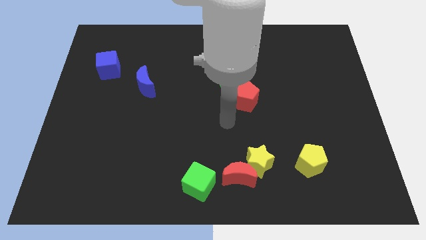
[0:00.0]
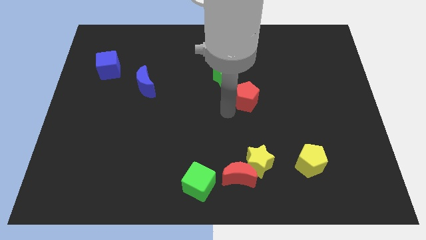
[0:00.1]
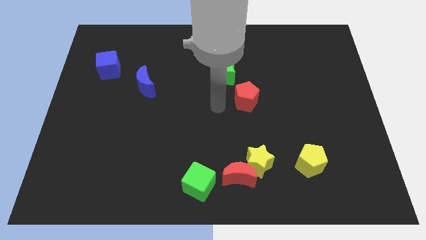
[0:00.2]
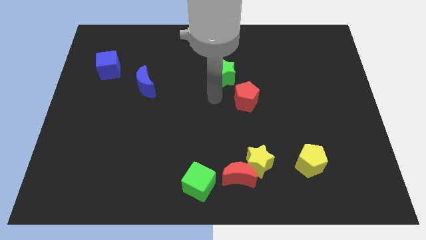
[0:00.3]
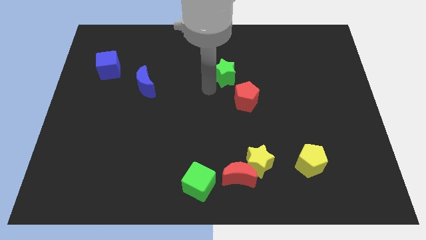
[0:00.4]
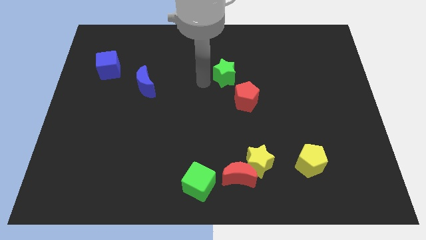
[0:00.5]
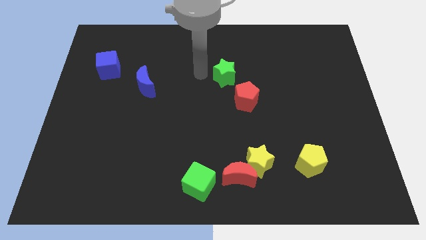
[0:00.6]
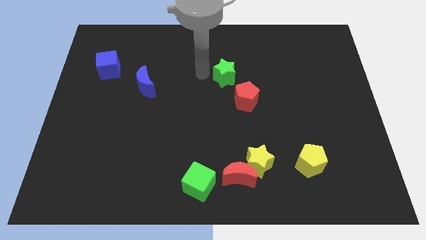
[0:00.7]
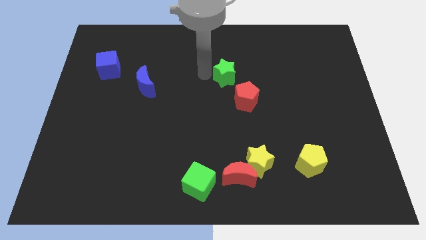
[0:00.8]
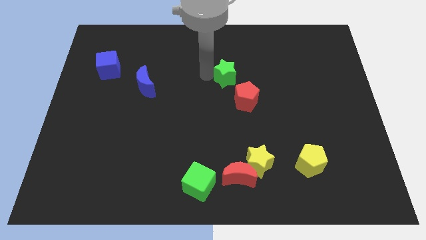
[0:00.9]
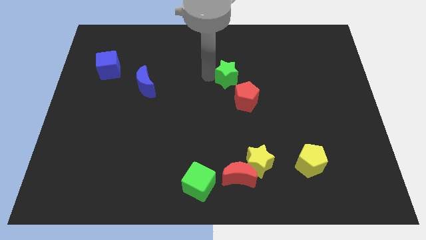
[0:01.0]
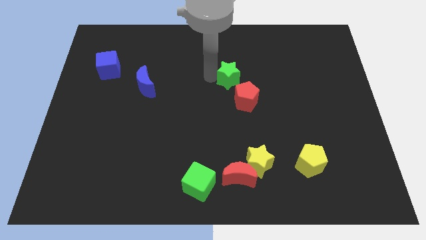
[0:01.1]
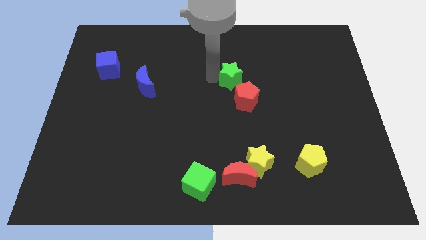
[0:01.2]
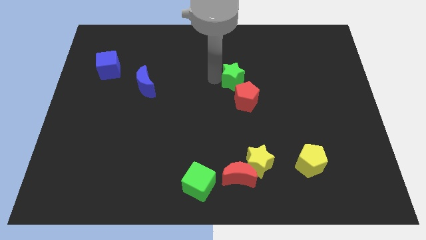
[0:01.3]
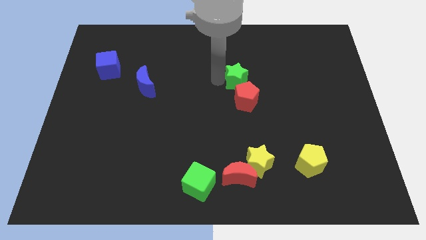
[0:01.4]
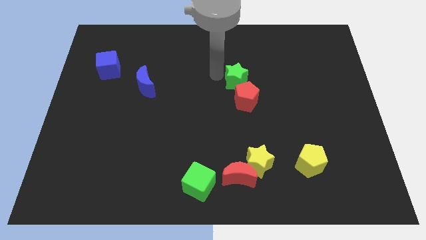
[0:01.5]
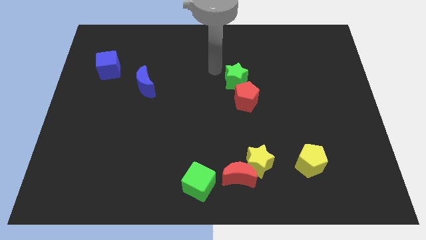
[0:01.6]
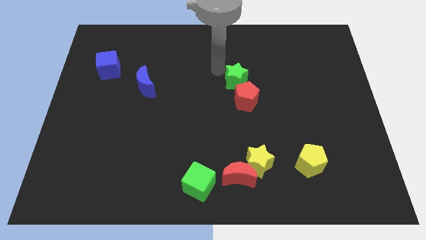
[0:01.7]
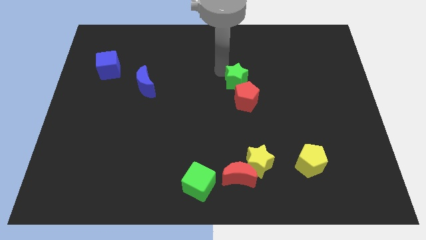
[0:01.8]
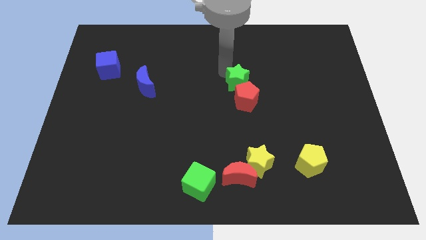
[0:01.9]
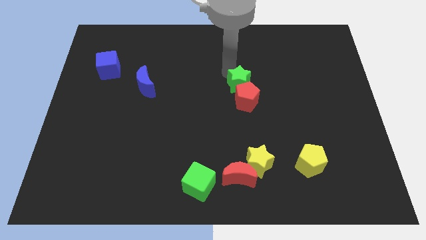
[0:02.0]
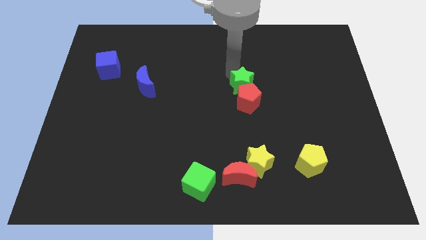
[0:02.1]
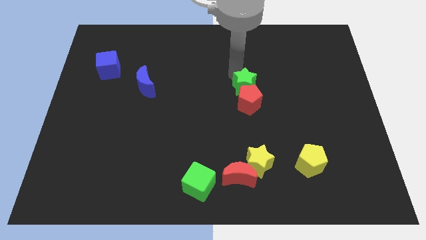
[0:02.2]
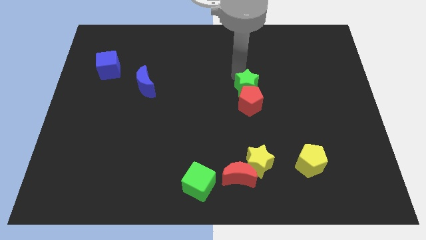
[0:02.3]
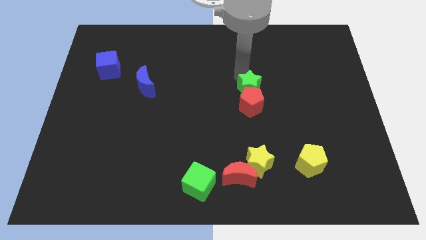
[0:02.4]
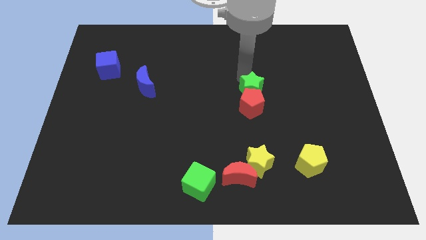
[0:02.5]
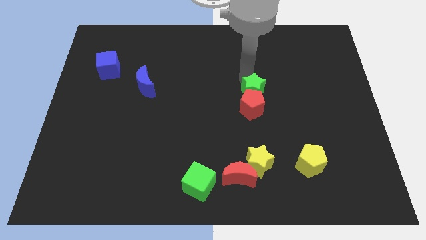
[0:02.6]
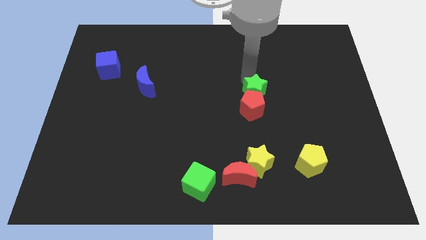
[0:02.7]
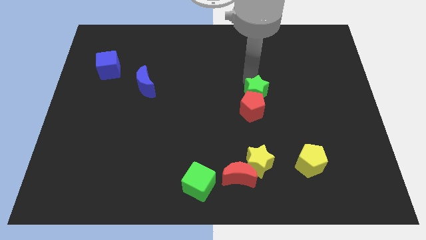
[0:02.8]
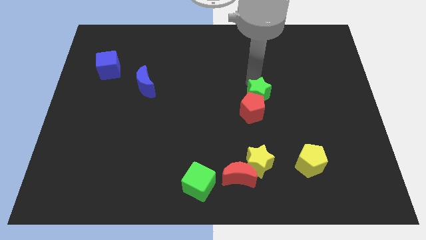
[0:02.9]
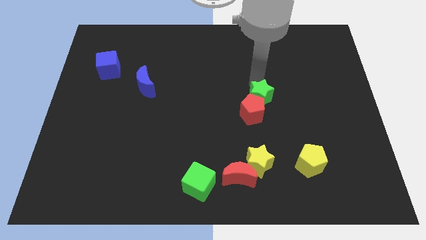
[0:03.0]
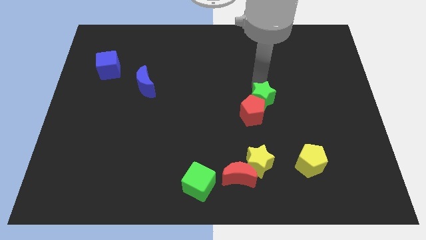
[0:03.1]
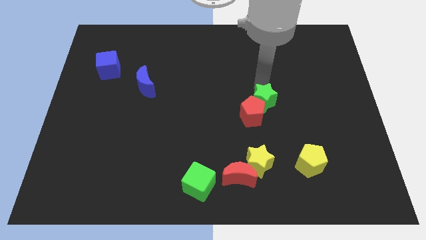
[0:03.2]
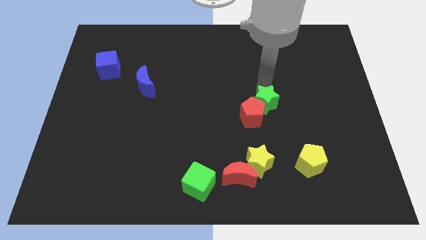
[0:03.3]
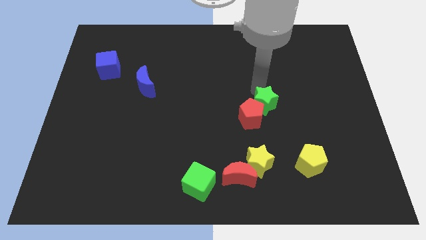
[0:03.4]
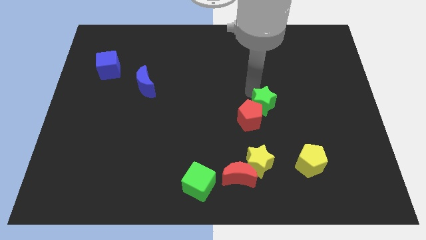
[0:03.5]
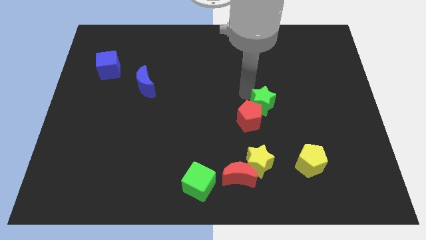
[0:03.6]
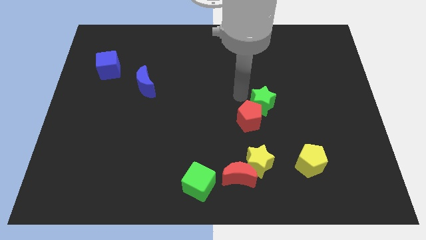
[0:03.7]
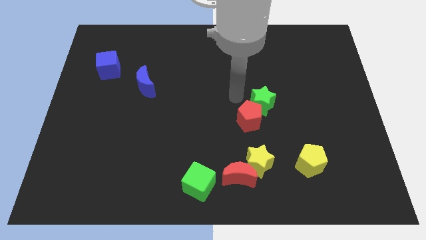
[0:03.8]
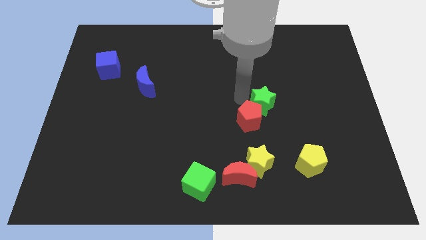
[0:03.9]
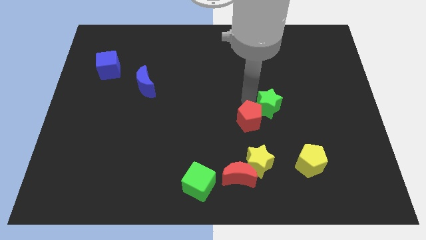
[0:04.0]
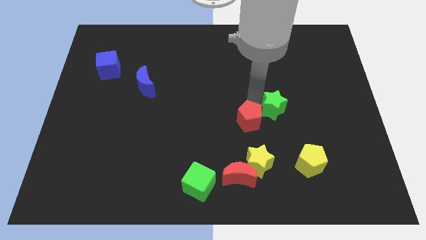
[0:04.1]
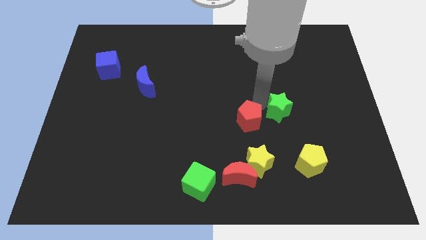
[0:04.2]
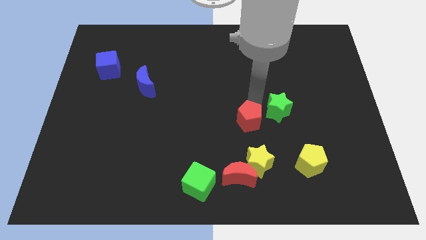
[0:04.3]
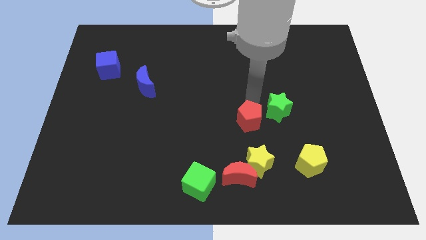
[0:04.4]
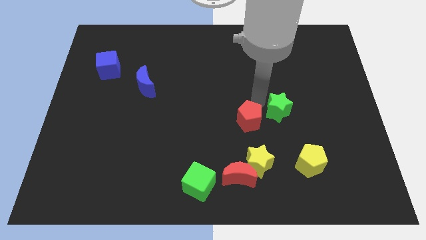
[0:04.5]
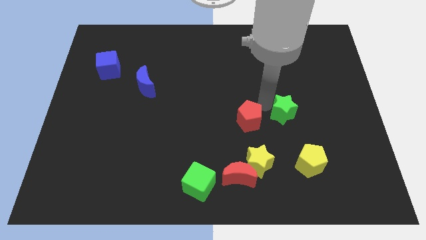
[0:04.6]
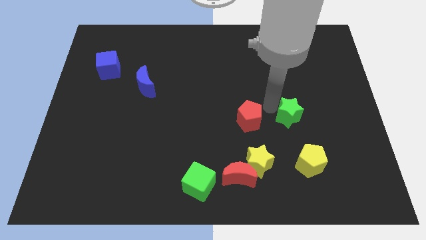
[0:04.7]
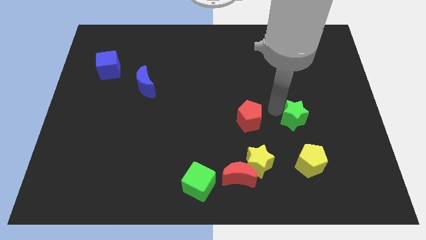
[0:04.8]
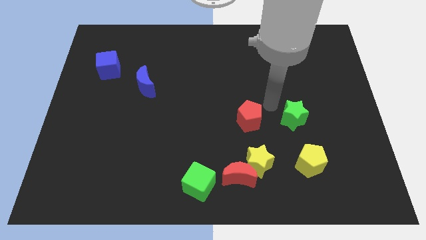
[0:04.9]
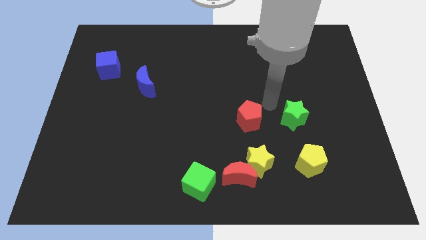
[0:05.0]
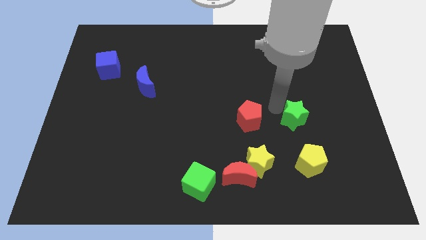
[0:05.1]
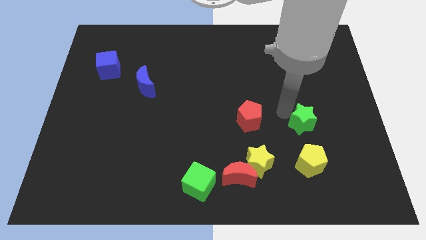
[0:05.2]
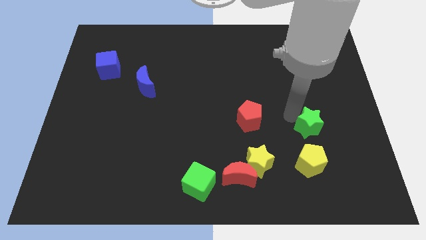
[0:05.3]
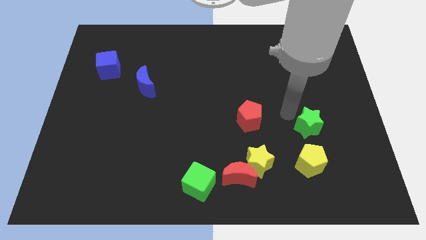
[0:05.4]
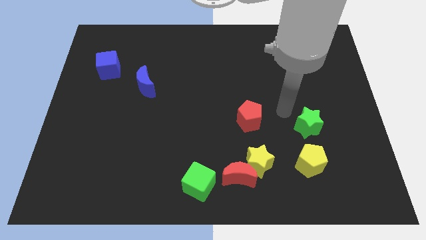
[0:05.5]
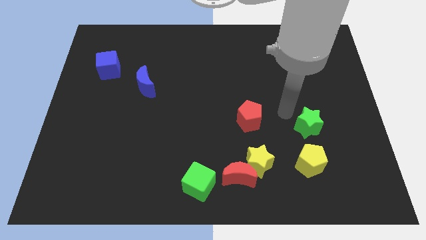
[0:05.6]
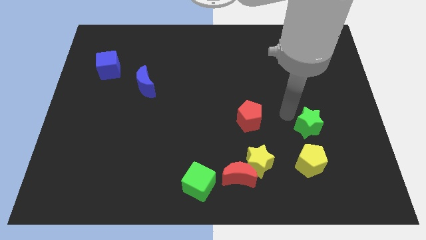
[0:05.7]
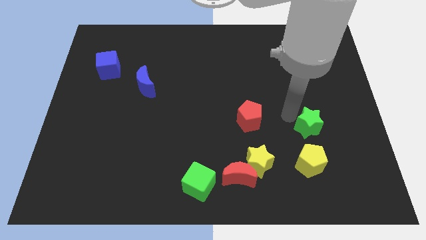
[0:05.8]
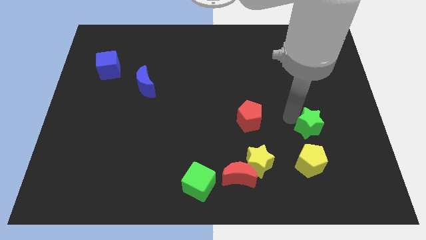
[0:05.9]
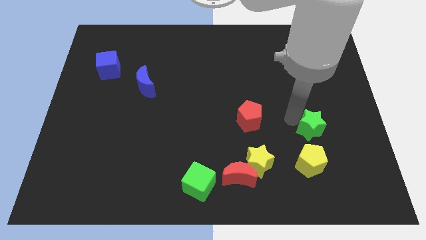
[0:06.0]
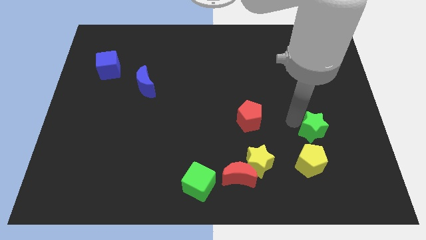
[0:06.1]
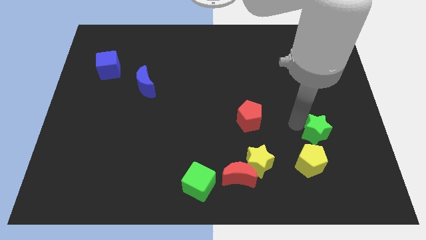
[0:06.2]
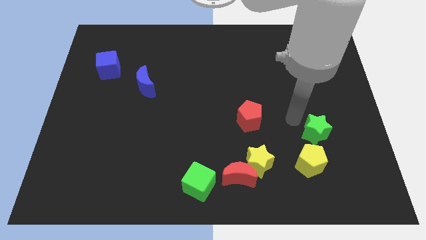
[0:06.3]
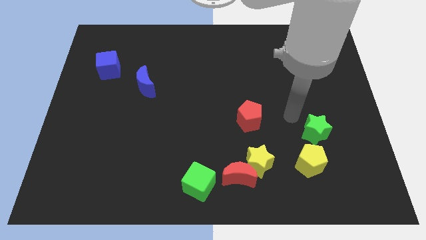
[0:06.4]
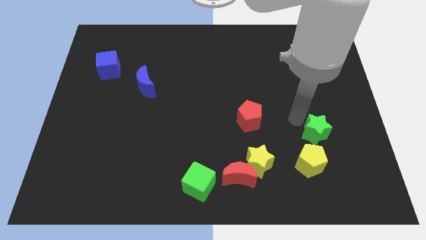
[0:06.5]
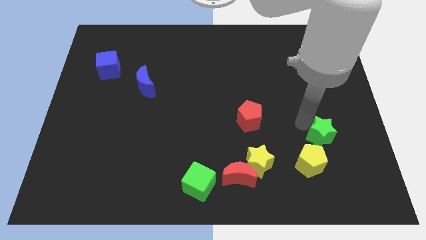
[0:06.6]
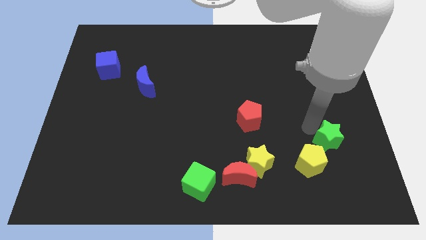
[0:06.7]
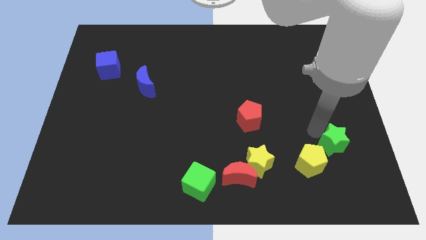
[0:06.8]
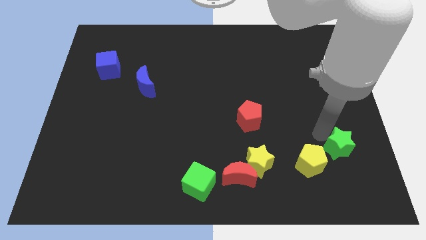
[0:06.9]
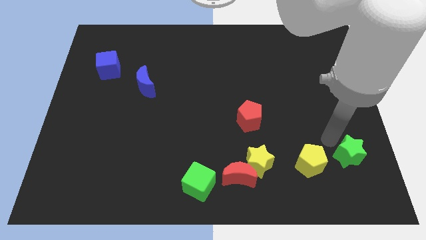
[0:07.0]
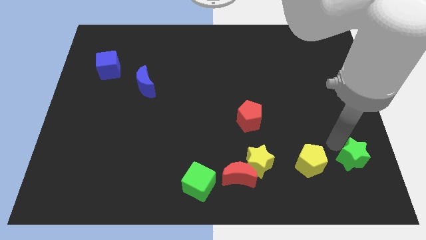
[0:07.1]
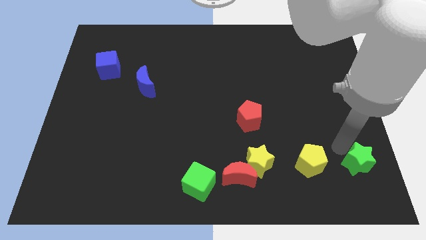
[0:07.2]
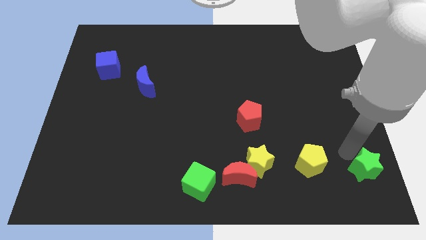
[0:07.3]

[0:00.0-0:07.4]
push the green star to the lower right corner
